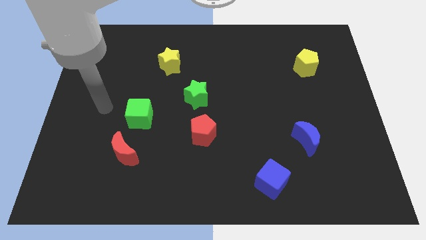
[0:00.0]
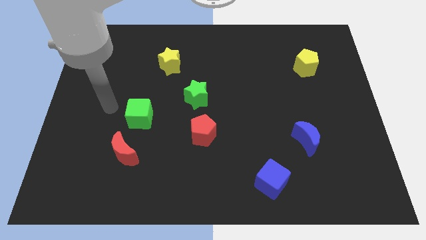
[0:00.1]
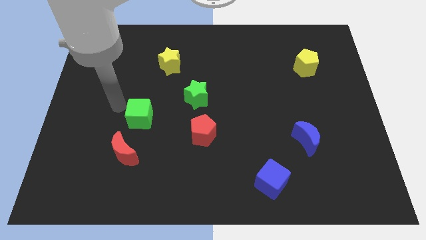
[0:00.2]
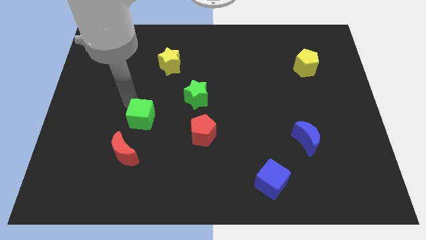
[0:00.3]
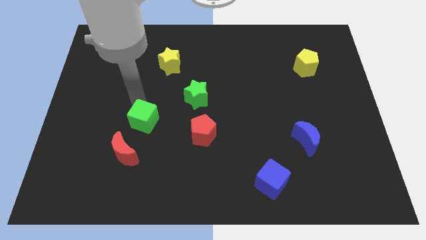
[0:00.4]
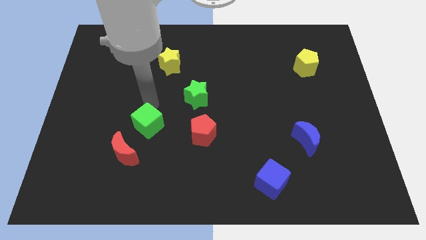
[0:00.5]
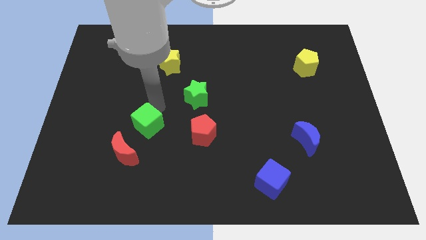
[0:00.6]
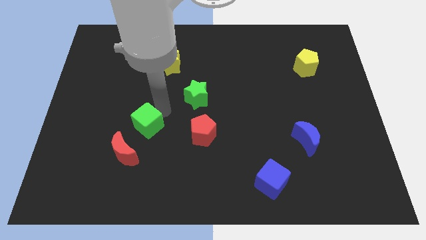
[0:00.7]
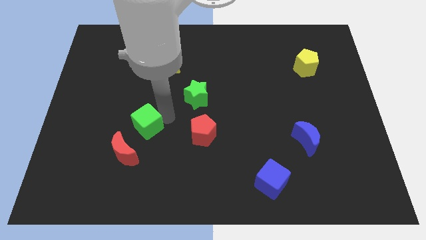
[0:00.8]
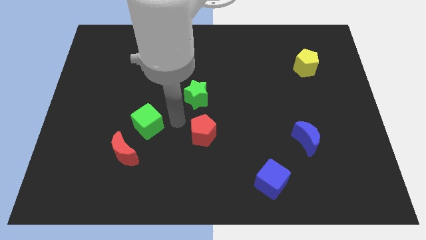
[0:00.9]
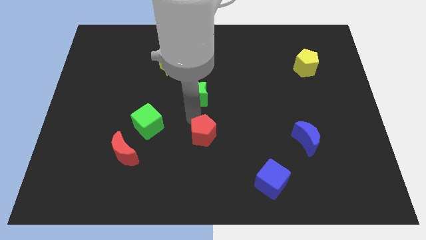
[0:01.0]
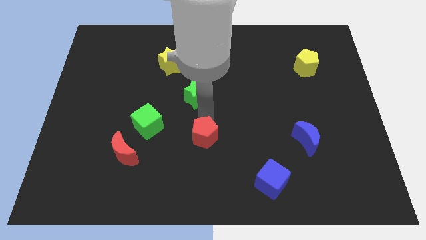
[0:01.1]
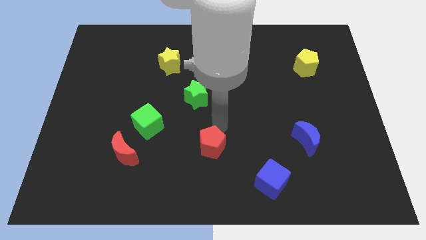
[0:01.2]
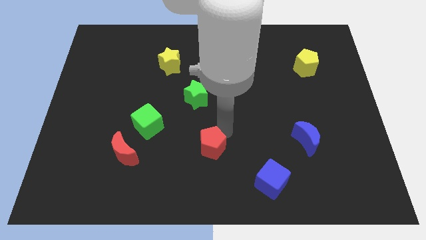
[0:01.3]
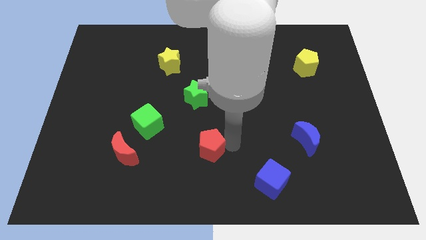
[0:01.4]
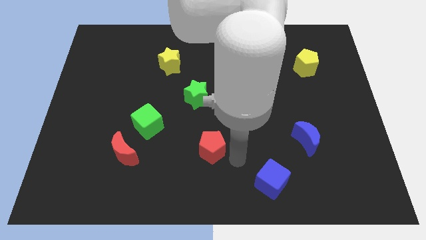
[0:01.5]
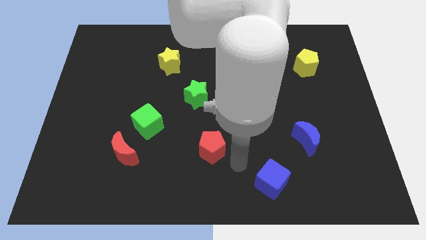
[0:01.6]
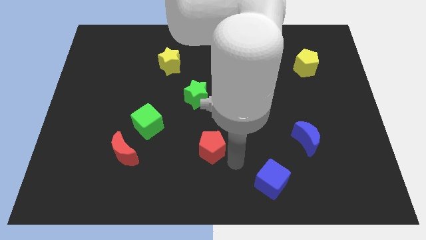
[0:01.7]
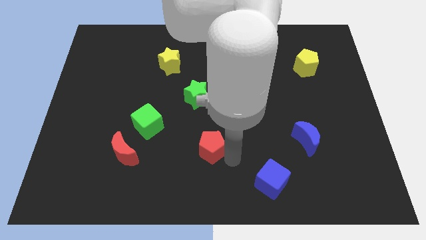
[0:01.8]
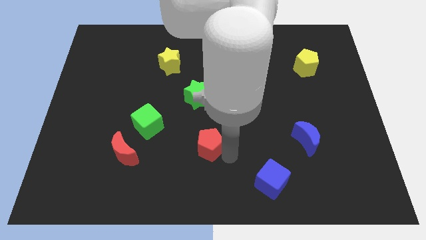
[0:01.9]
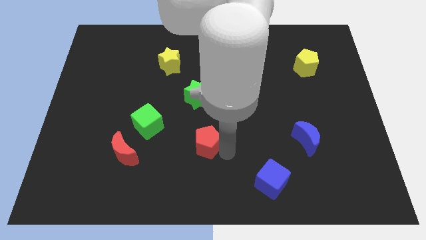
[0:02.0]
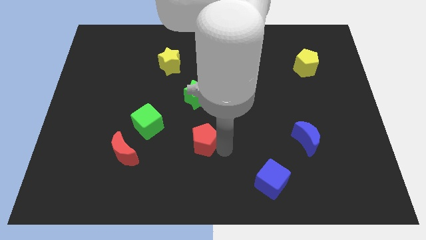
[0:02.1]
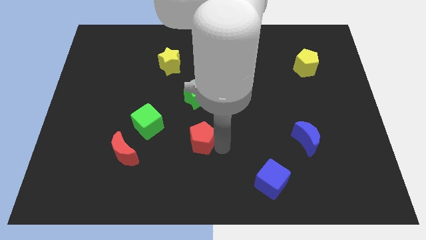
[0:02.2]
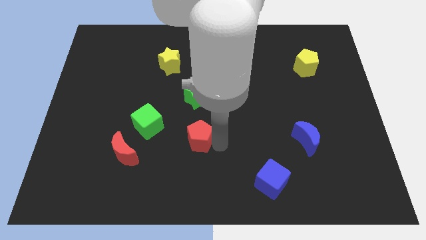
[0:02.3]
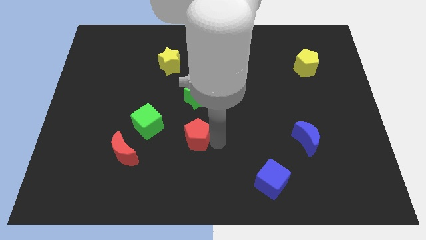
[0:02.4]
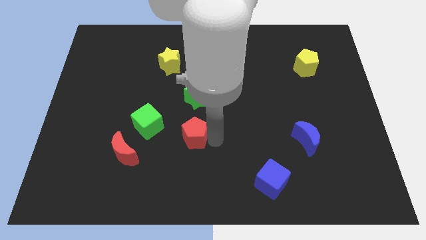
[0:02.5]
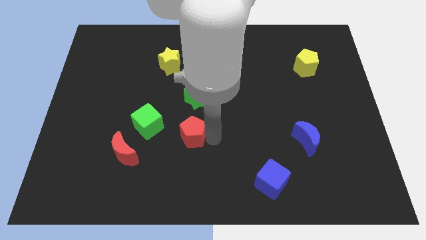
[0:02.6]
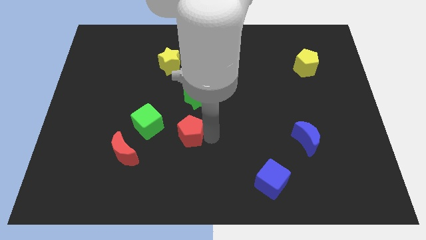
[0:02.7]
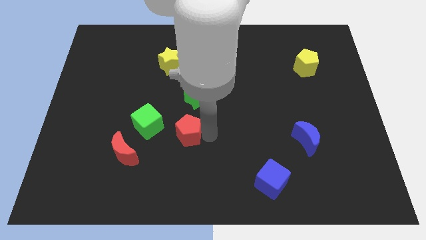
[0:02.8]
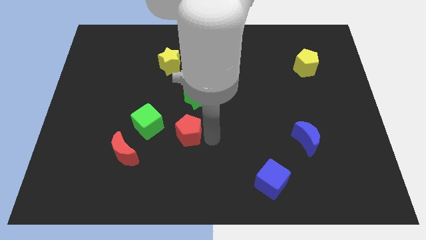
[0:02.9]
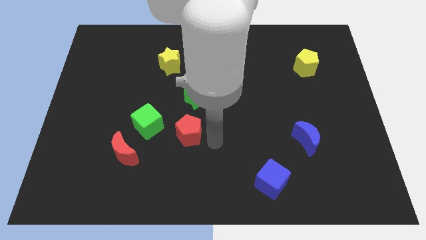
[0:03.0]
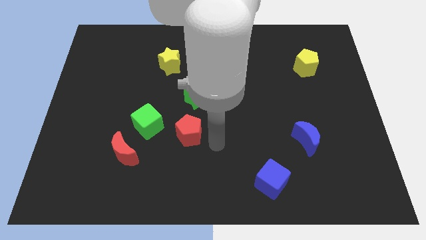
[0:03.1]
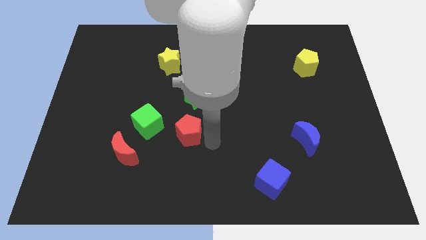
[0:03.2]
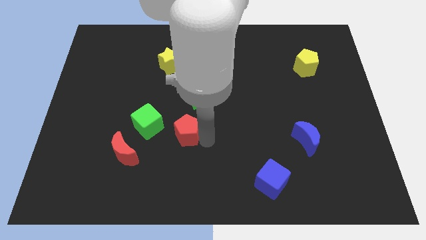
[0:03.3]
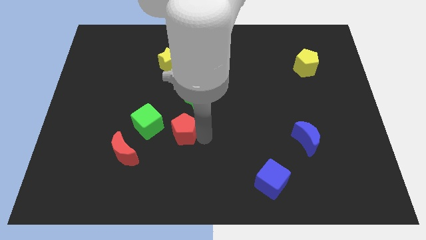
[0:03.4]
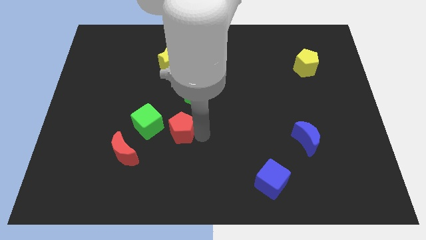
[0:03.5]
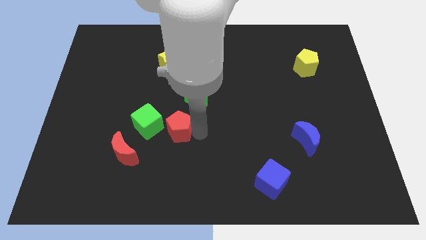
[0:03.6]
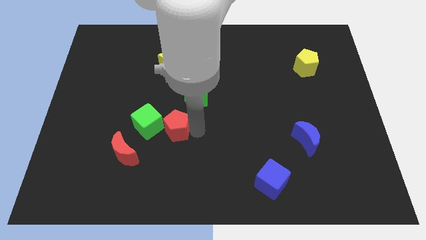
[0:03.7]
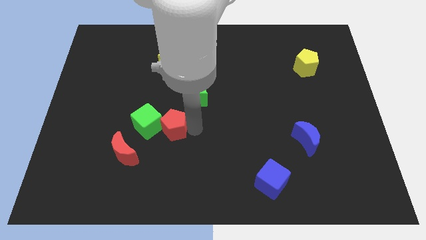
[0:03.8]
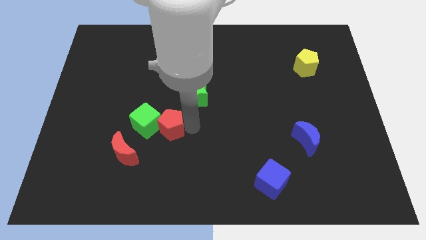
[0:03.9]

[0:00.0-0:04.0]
push the red pentagon left slightly

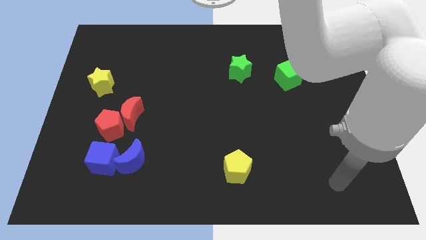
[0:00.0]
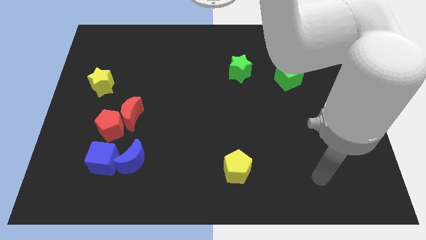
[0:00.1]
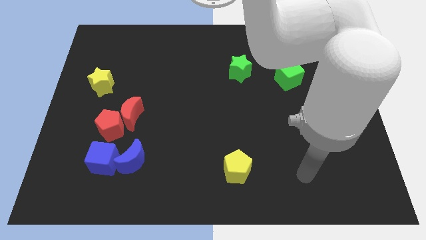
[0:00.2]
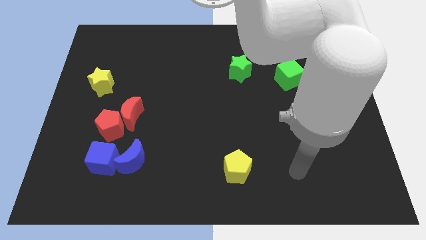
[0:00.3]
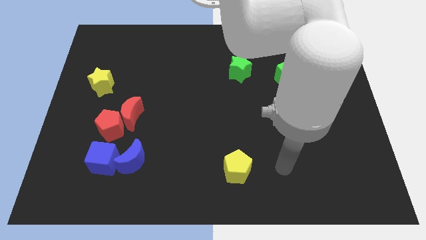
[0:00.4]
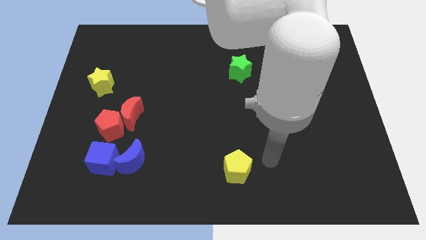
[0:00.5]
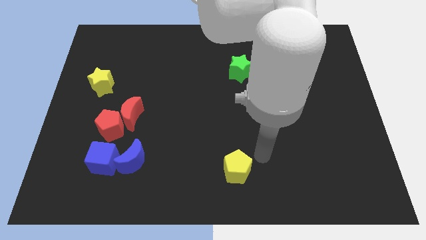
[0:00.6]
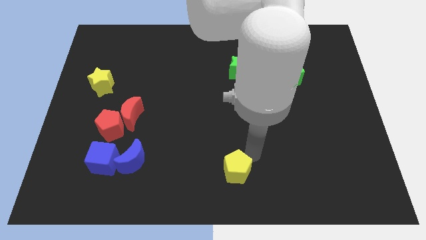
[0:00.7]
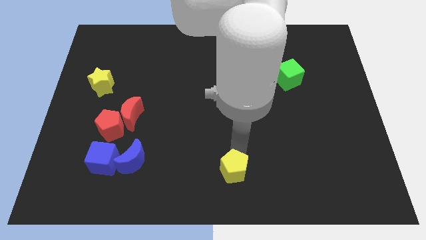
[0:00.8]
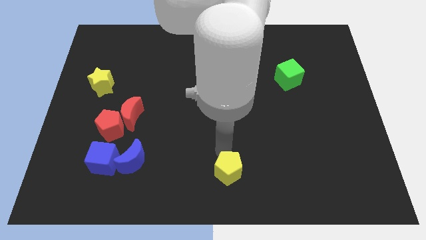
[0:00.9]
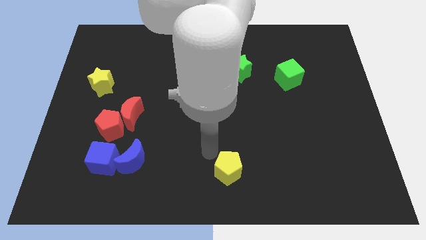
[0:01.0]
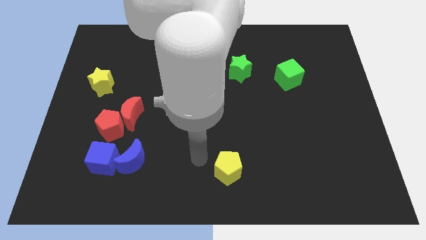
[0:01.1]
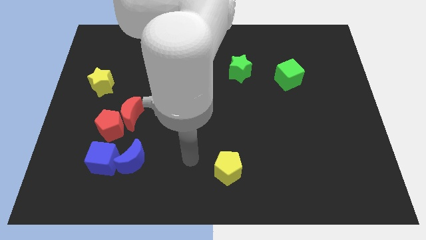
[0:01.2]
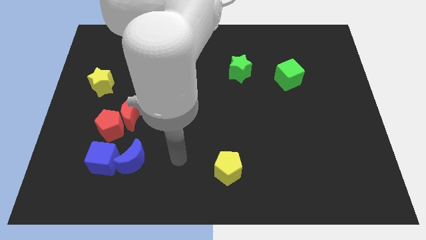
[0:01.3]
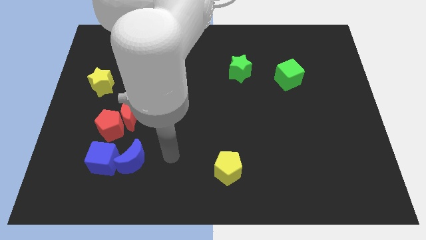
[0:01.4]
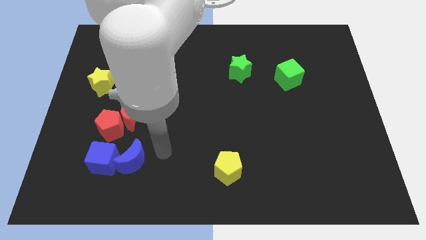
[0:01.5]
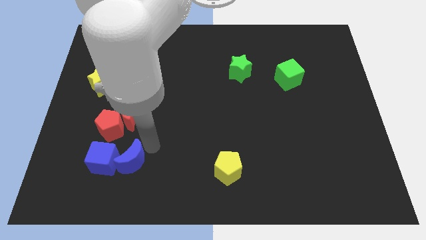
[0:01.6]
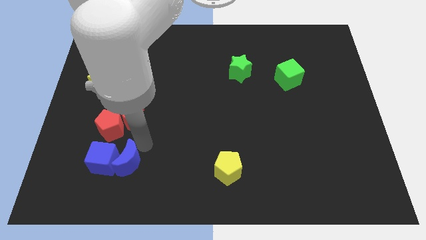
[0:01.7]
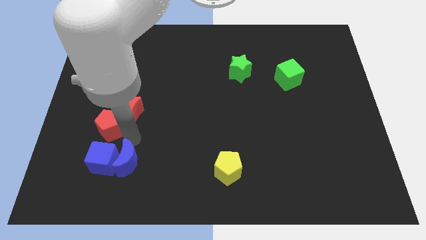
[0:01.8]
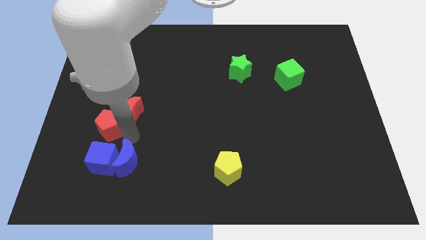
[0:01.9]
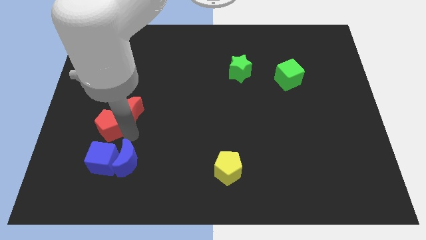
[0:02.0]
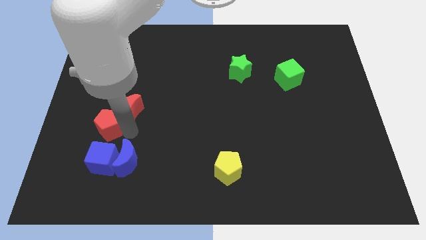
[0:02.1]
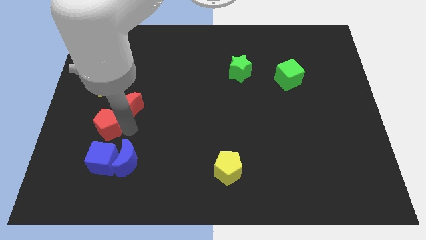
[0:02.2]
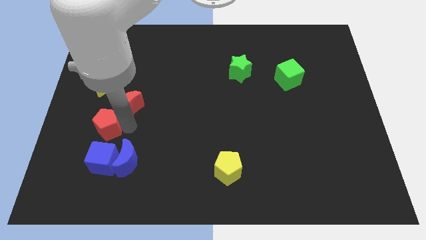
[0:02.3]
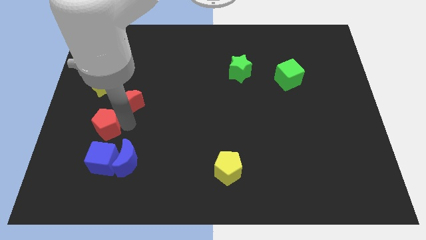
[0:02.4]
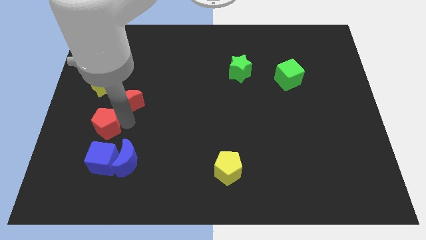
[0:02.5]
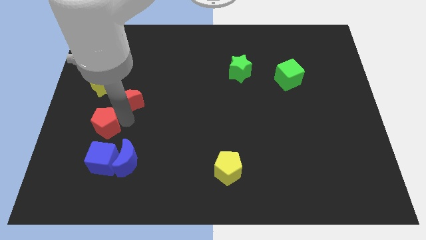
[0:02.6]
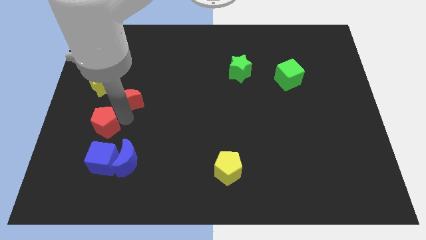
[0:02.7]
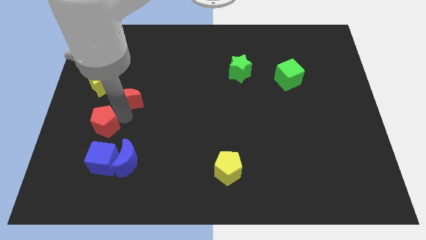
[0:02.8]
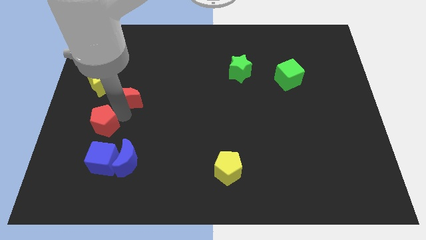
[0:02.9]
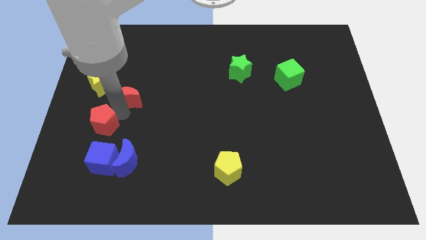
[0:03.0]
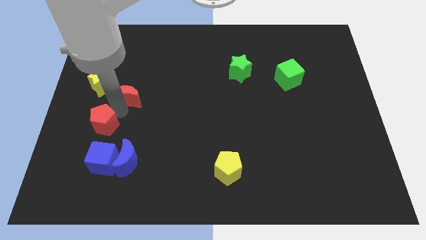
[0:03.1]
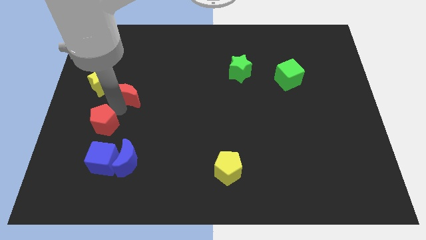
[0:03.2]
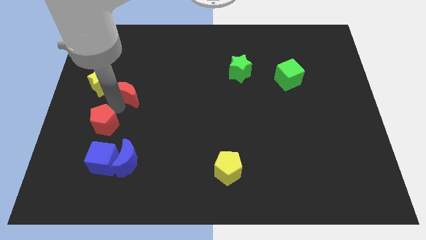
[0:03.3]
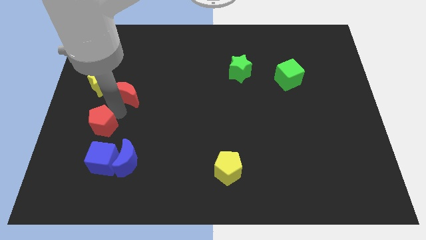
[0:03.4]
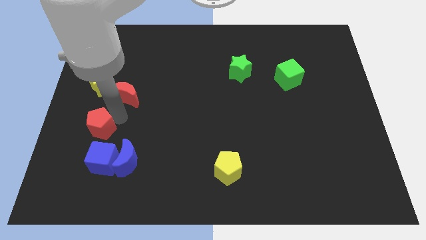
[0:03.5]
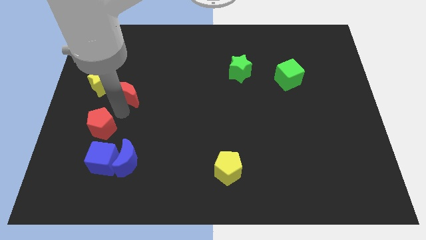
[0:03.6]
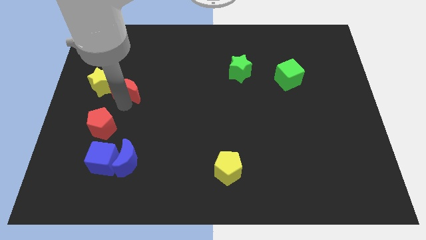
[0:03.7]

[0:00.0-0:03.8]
slightly slide the red moon up
